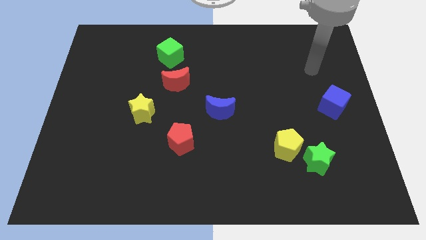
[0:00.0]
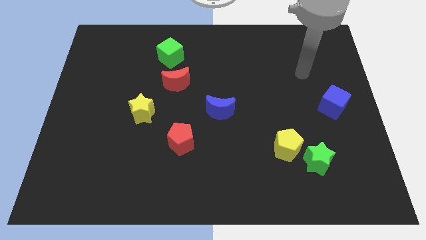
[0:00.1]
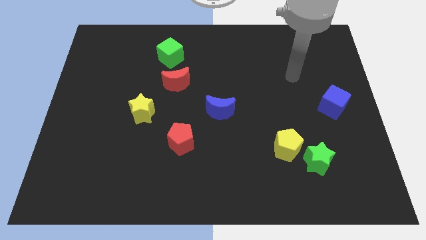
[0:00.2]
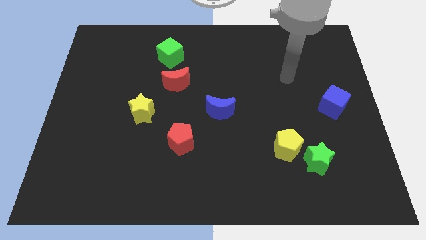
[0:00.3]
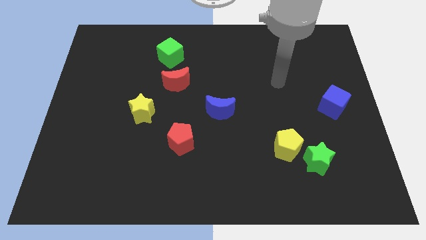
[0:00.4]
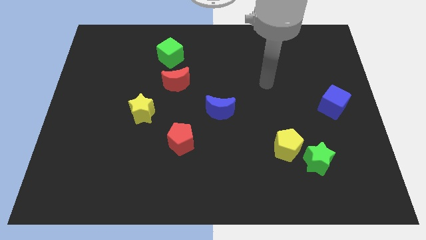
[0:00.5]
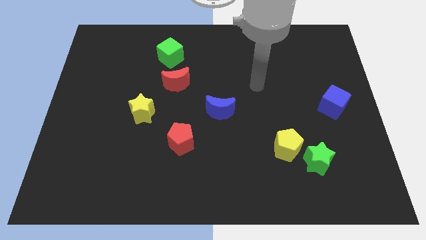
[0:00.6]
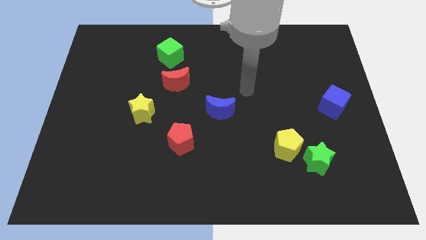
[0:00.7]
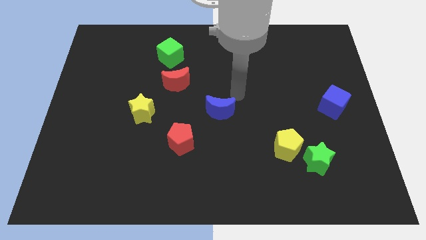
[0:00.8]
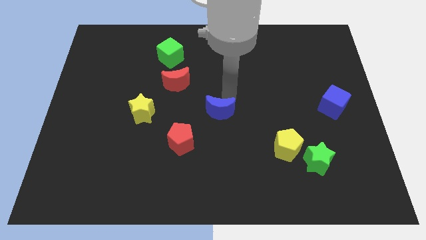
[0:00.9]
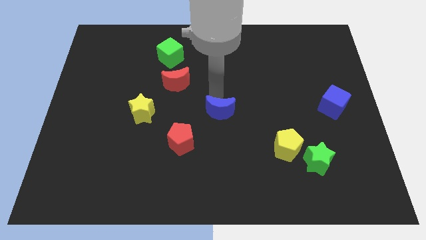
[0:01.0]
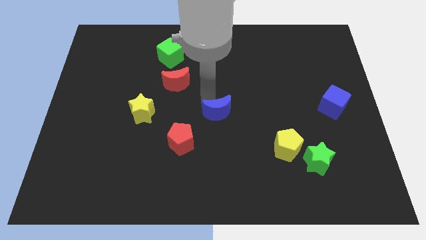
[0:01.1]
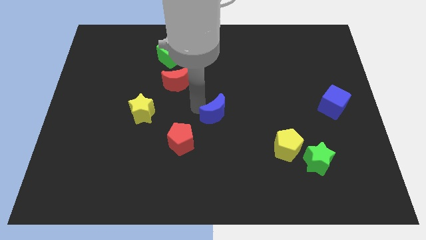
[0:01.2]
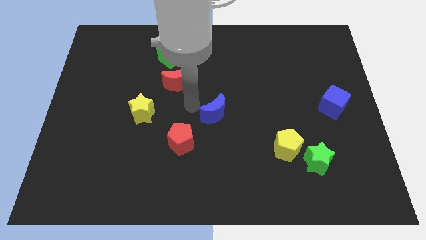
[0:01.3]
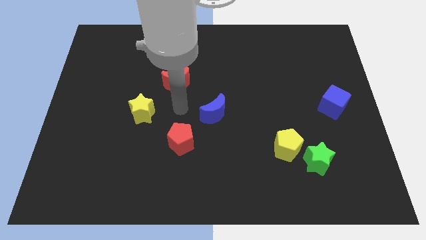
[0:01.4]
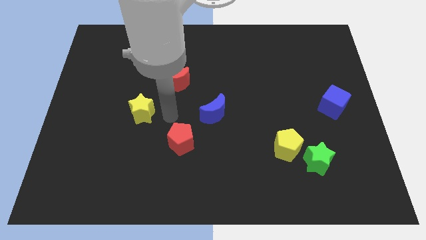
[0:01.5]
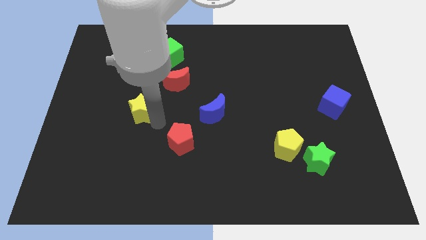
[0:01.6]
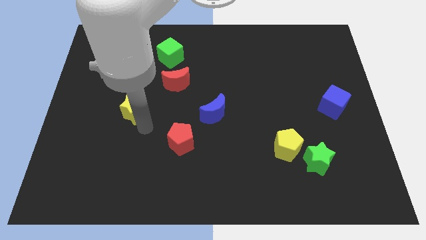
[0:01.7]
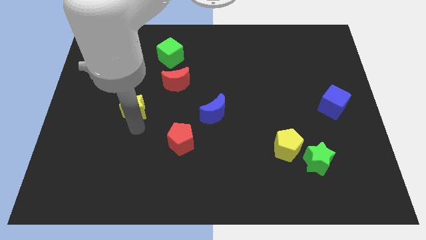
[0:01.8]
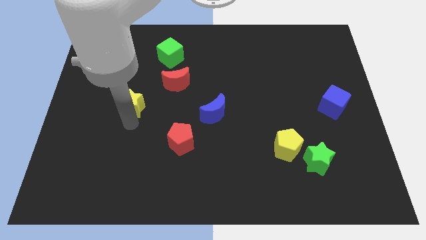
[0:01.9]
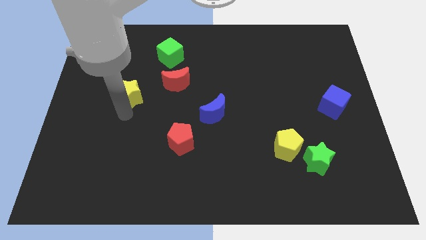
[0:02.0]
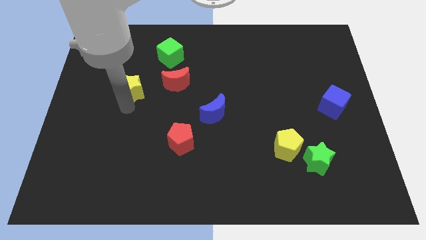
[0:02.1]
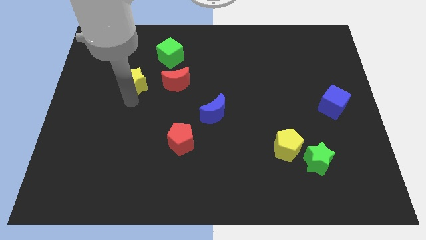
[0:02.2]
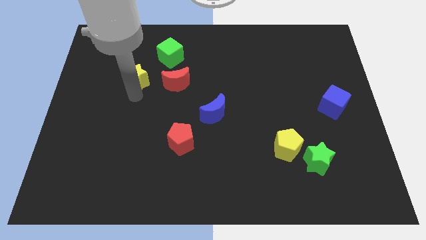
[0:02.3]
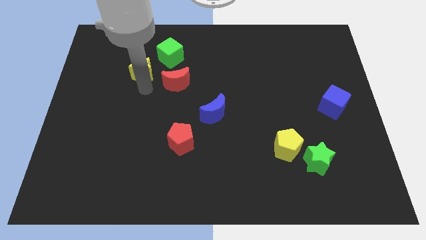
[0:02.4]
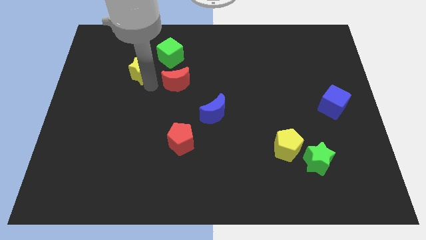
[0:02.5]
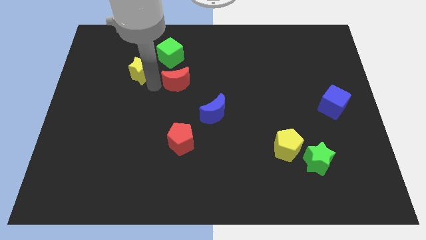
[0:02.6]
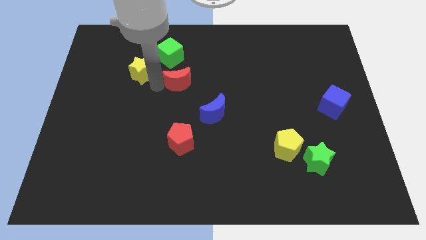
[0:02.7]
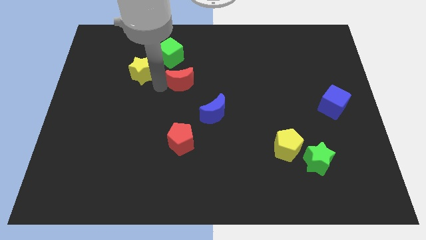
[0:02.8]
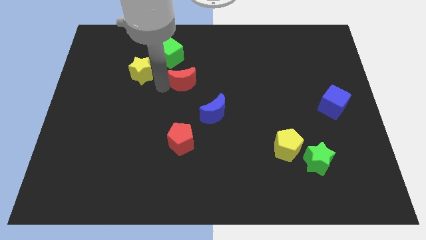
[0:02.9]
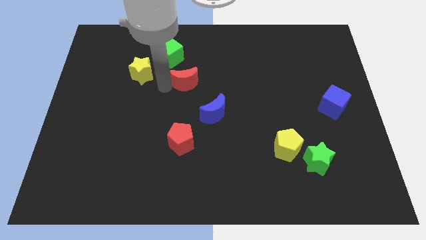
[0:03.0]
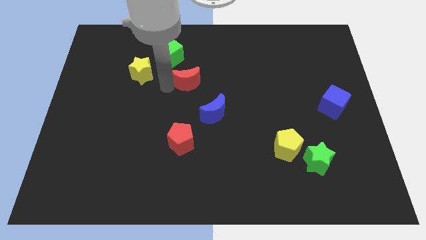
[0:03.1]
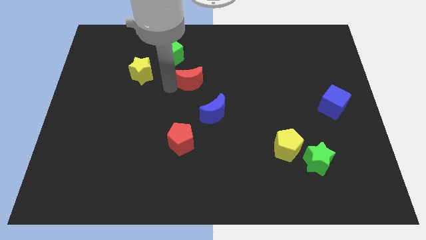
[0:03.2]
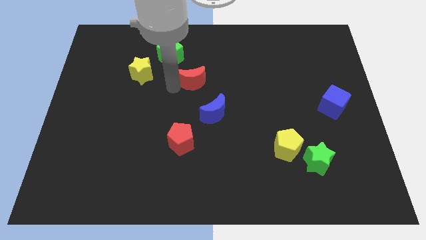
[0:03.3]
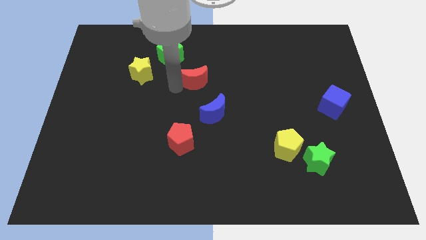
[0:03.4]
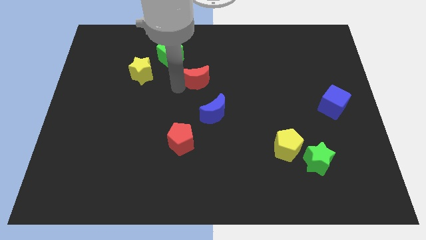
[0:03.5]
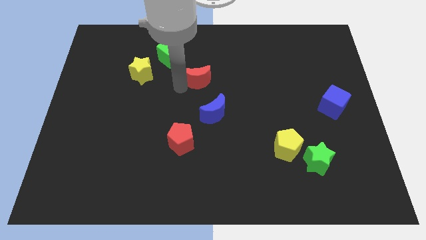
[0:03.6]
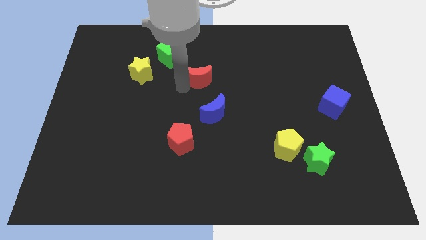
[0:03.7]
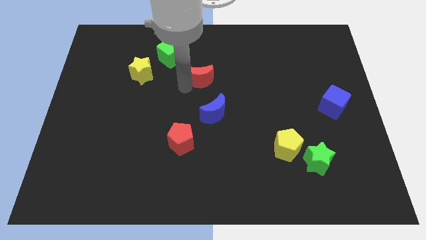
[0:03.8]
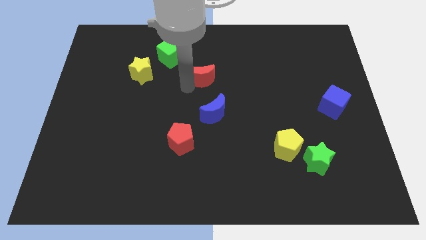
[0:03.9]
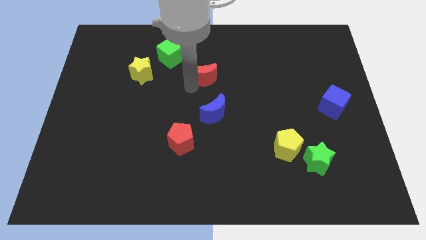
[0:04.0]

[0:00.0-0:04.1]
slide the red moon right a little bit

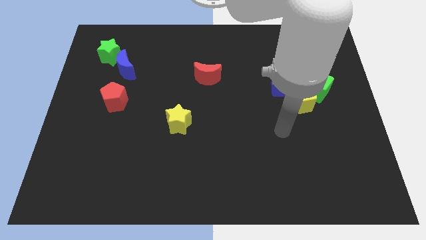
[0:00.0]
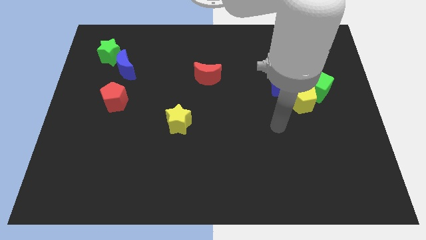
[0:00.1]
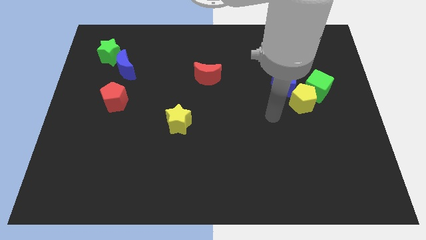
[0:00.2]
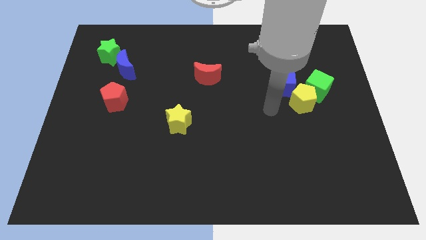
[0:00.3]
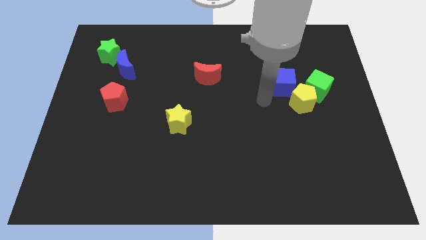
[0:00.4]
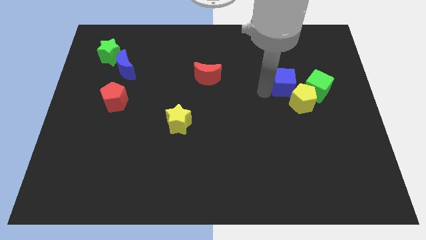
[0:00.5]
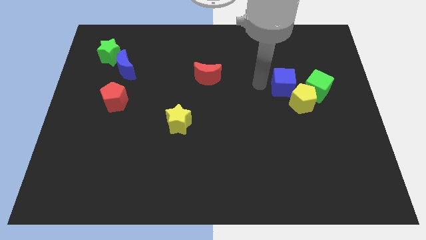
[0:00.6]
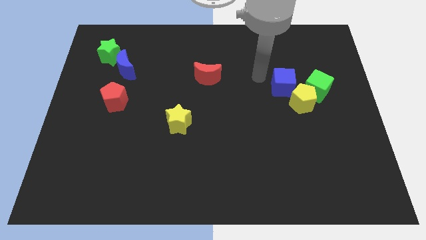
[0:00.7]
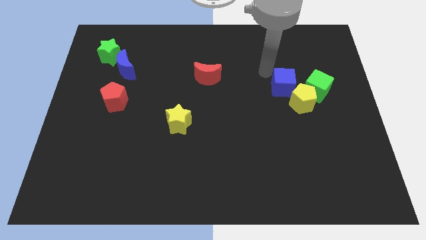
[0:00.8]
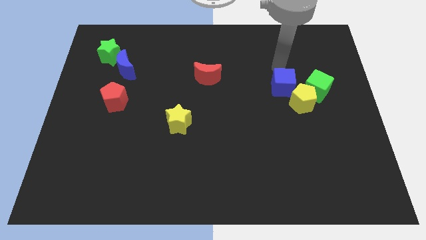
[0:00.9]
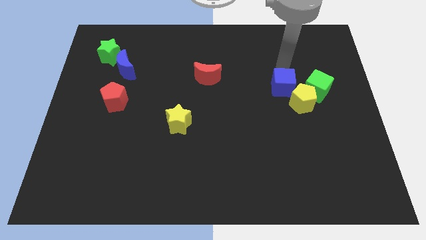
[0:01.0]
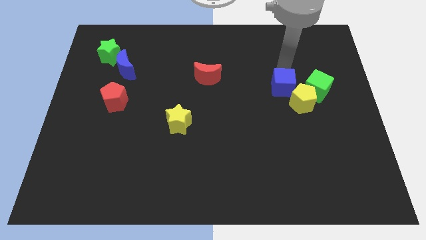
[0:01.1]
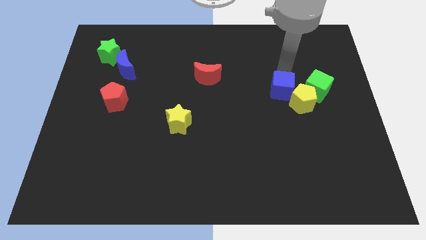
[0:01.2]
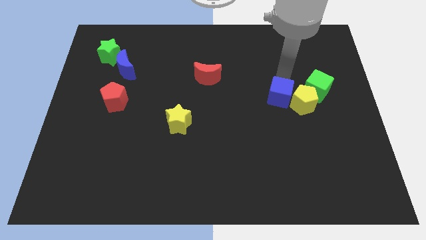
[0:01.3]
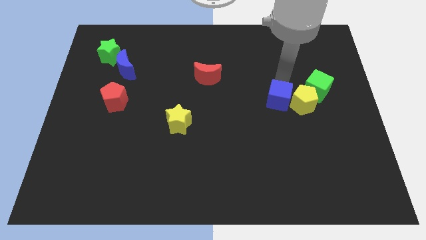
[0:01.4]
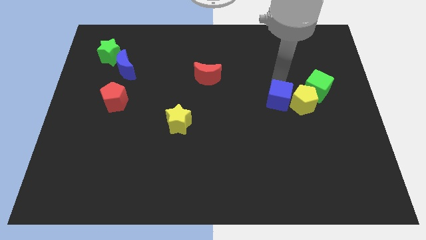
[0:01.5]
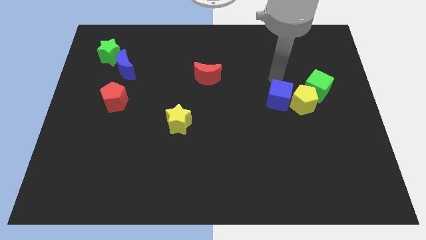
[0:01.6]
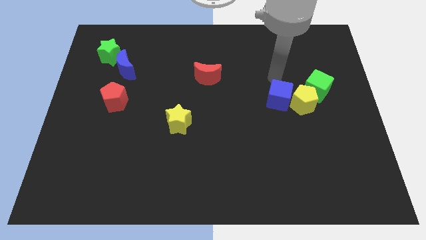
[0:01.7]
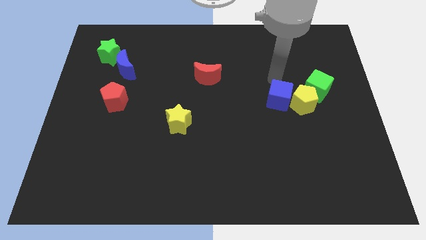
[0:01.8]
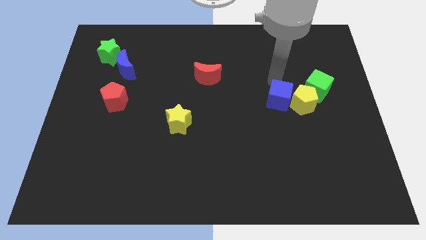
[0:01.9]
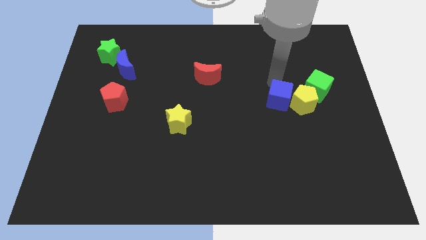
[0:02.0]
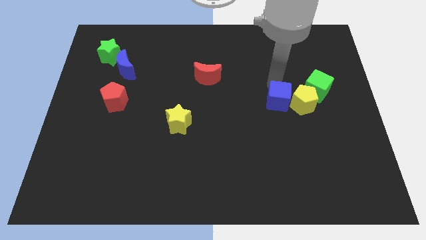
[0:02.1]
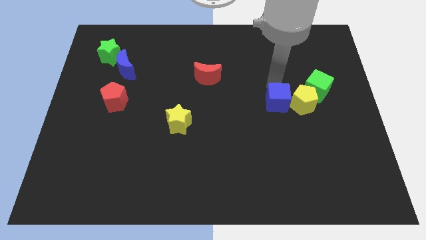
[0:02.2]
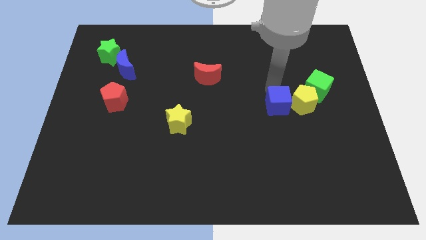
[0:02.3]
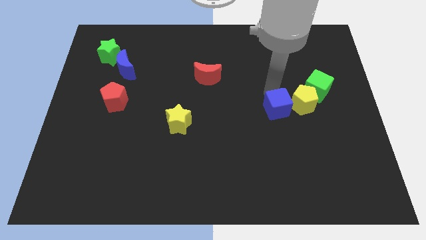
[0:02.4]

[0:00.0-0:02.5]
push the blue cube downwards slightly

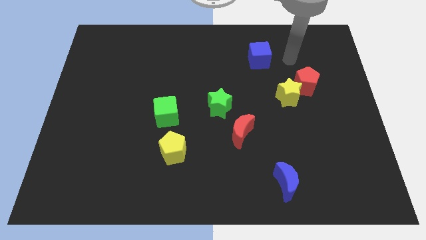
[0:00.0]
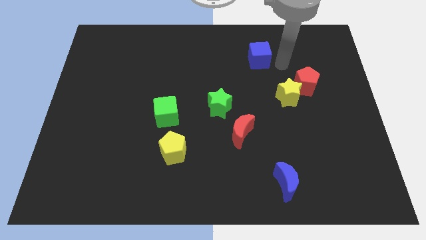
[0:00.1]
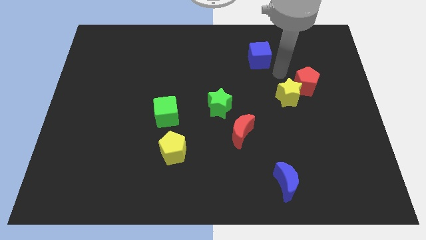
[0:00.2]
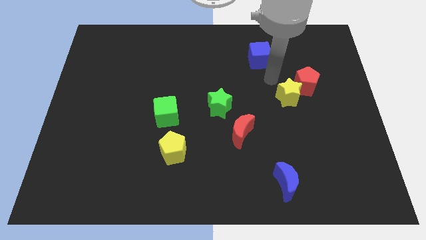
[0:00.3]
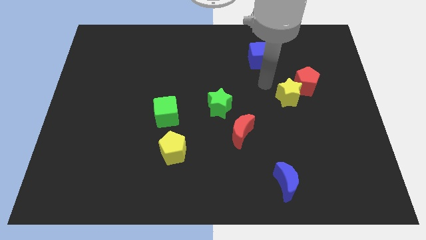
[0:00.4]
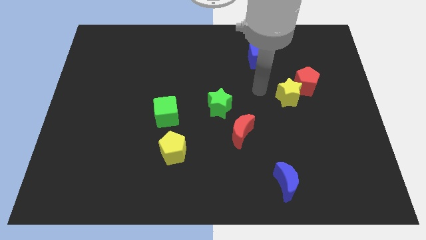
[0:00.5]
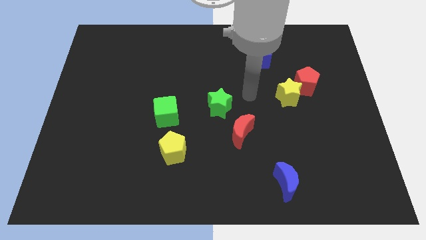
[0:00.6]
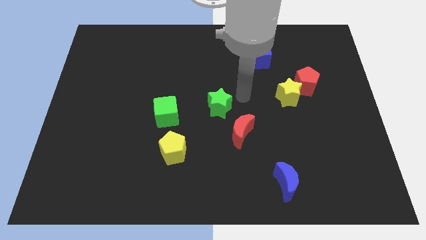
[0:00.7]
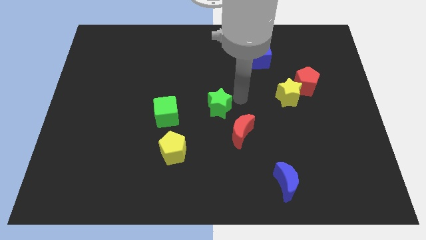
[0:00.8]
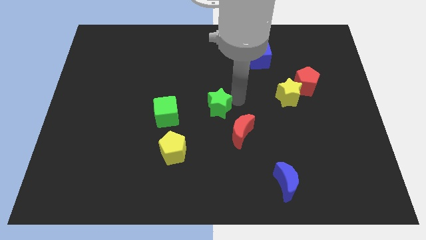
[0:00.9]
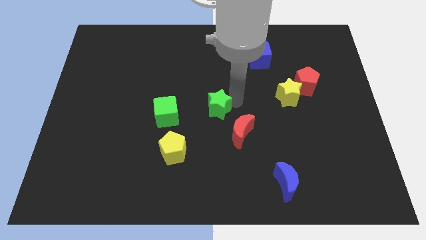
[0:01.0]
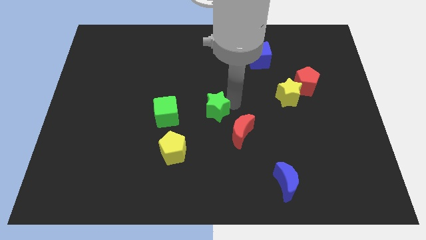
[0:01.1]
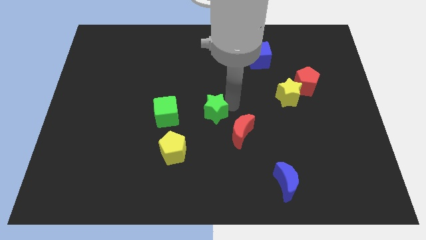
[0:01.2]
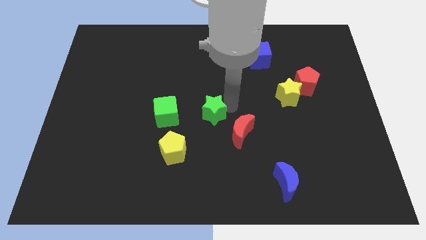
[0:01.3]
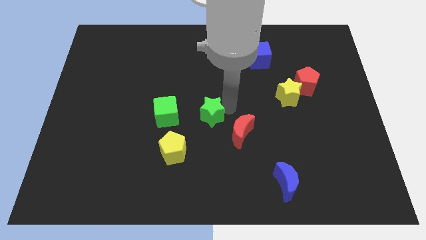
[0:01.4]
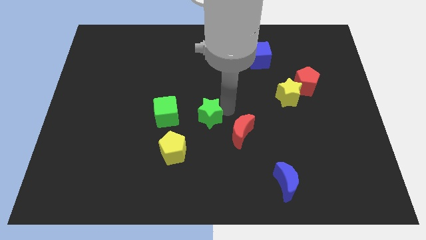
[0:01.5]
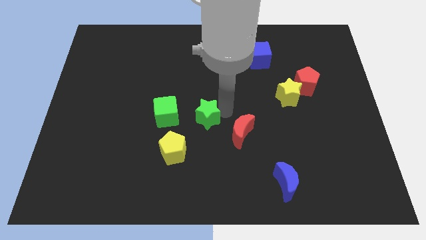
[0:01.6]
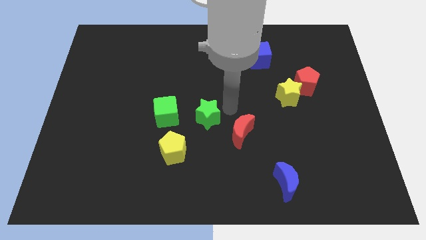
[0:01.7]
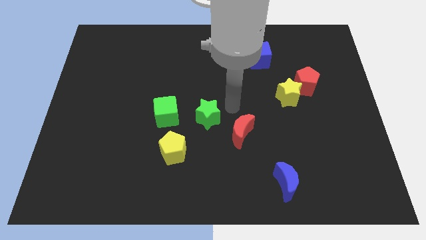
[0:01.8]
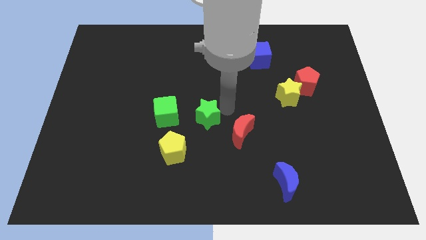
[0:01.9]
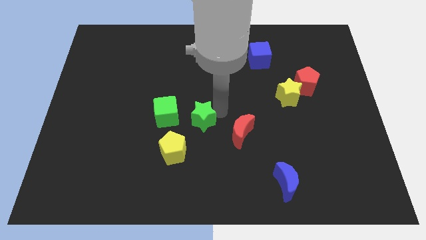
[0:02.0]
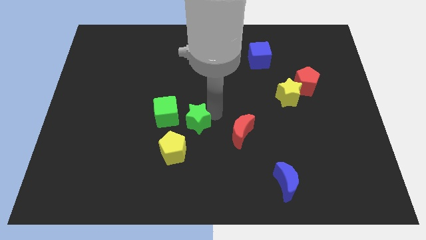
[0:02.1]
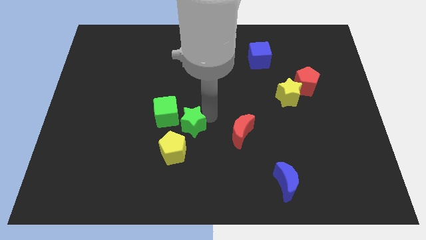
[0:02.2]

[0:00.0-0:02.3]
slide the green star downwards and left somewhat
